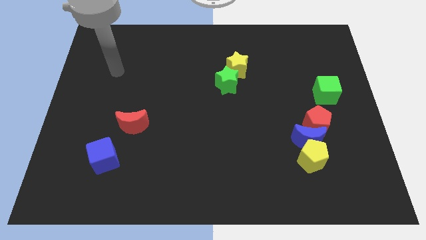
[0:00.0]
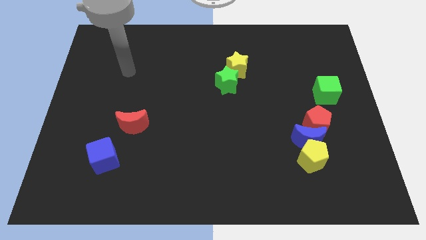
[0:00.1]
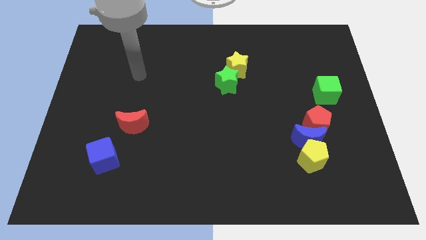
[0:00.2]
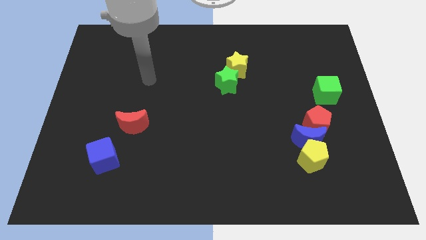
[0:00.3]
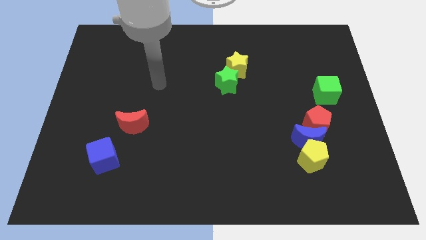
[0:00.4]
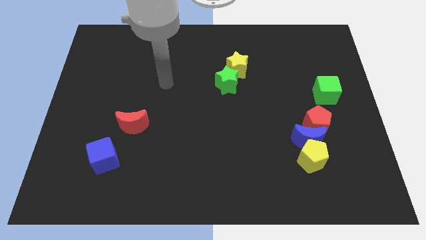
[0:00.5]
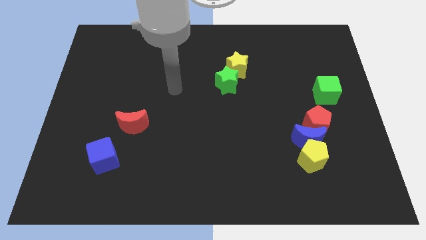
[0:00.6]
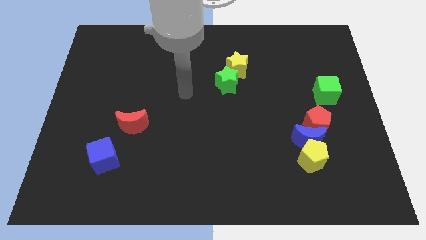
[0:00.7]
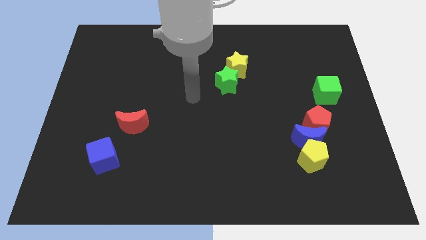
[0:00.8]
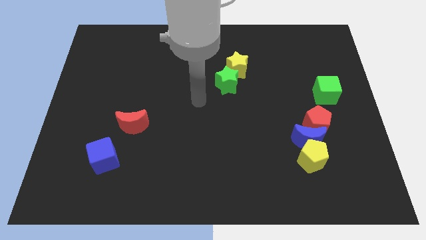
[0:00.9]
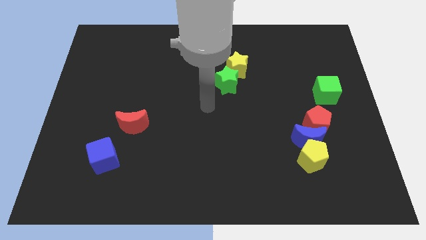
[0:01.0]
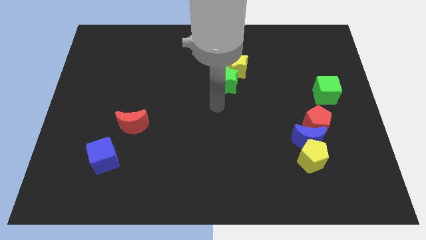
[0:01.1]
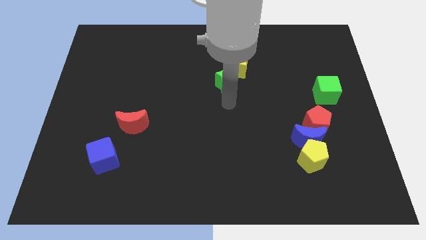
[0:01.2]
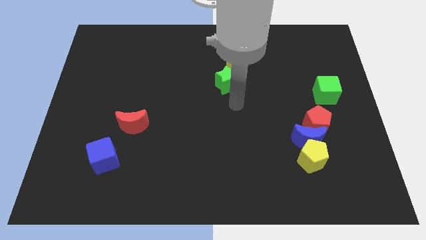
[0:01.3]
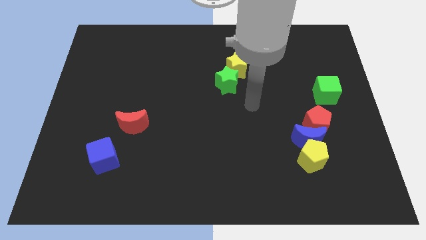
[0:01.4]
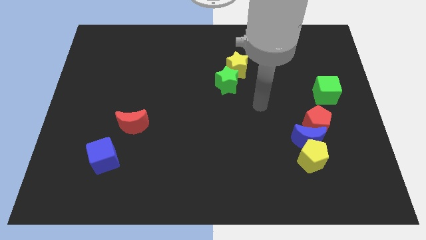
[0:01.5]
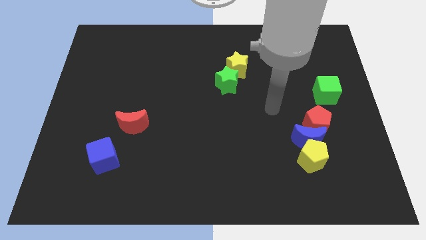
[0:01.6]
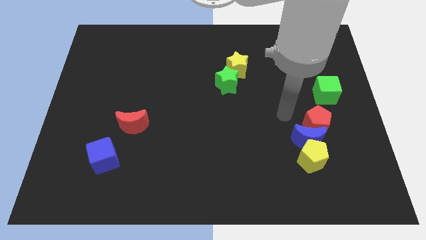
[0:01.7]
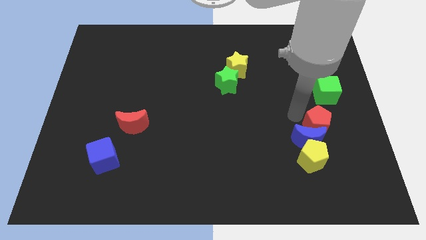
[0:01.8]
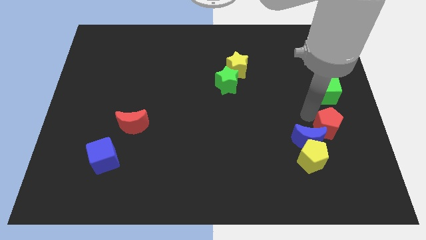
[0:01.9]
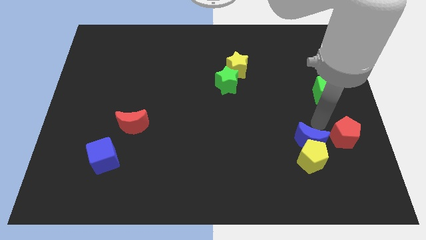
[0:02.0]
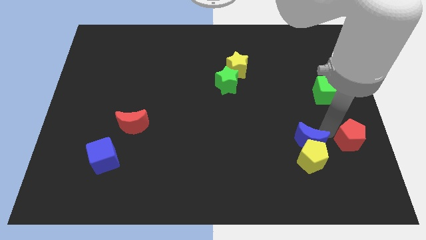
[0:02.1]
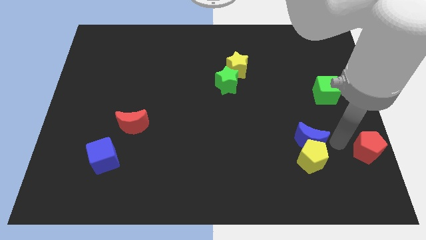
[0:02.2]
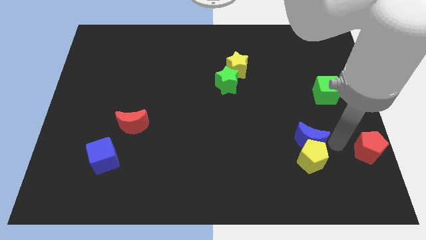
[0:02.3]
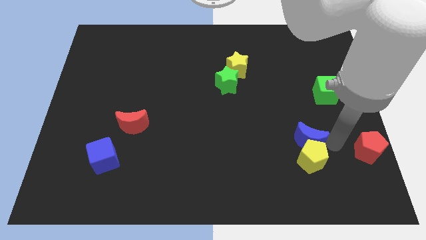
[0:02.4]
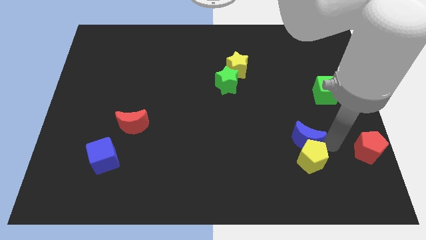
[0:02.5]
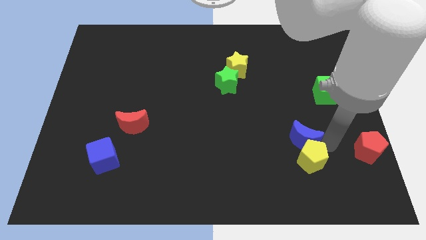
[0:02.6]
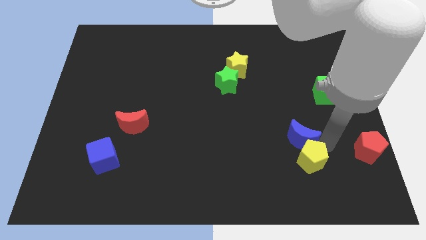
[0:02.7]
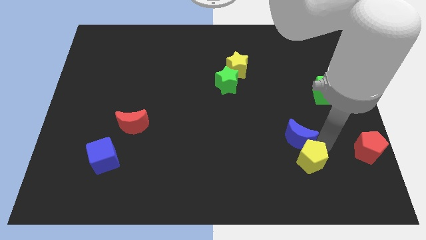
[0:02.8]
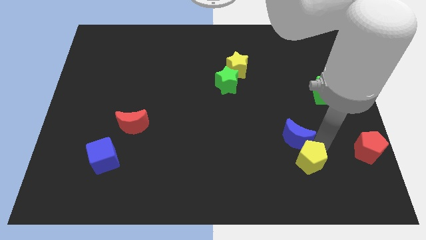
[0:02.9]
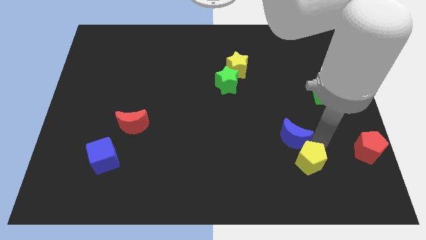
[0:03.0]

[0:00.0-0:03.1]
move the blue moon away from the yellow pentagon and red pentagon

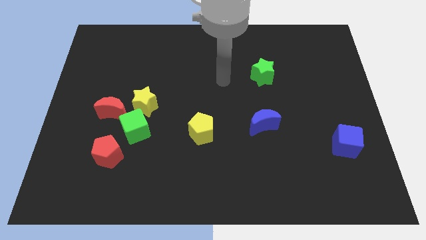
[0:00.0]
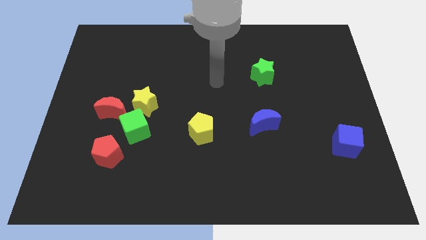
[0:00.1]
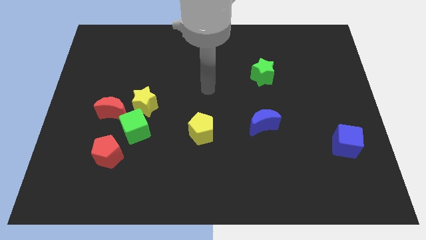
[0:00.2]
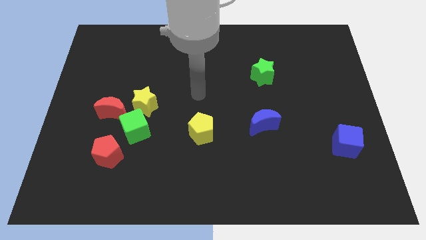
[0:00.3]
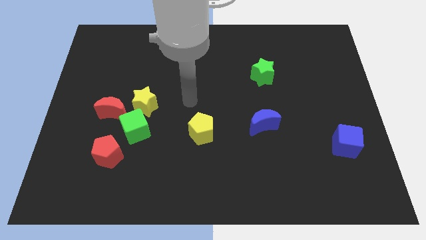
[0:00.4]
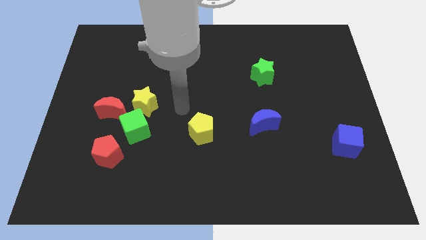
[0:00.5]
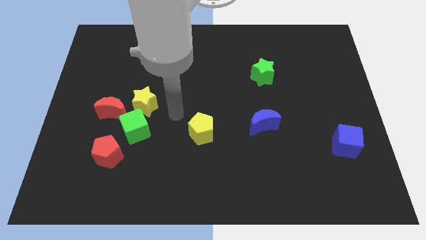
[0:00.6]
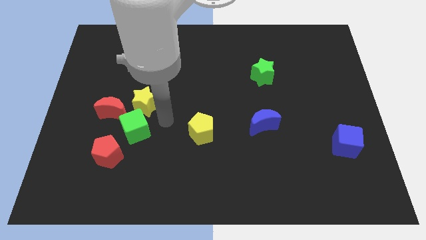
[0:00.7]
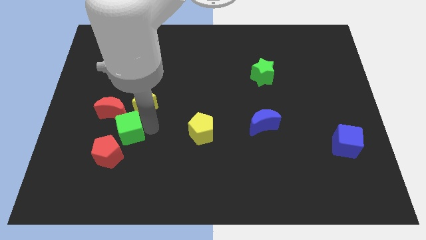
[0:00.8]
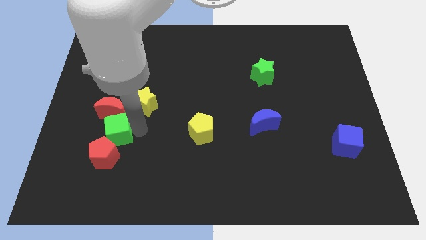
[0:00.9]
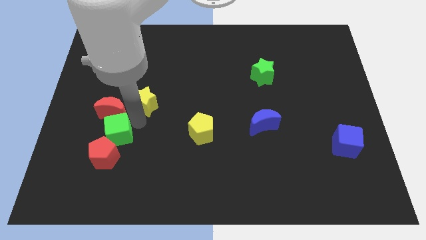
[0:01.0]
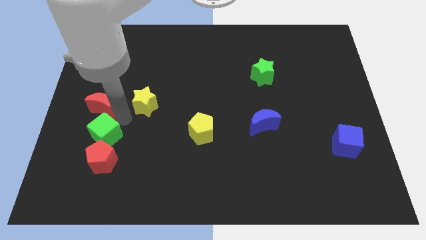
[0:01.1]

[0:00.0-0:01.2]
pull the yellow star apart from the green cube and red moon

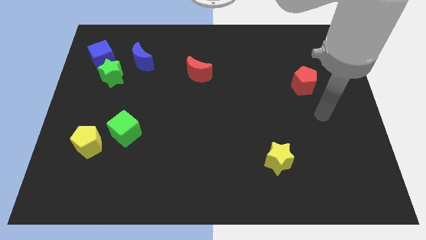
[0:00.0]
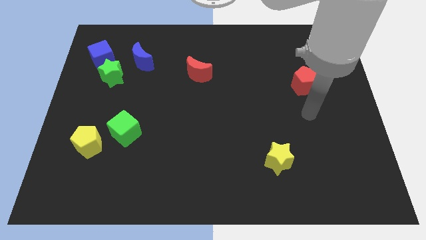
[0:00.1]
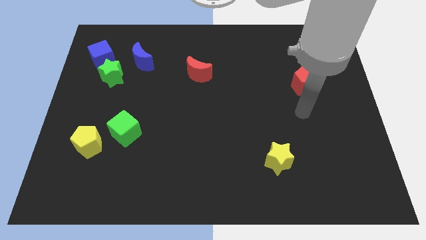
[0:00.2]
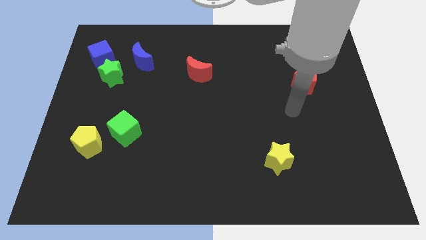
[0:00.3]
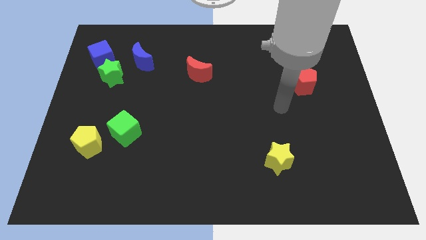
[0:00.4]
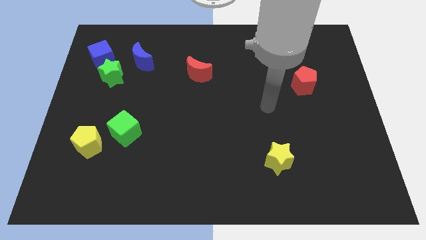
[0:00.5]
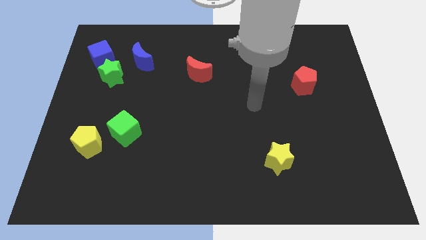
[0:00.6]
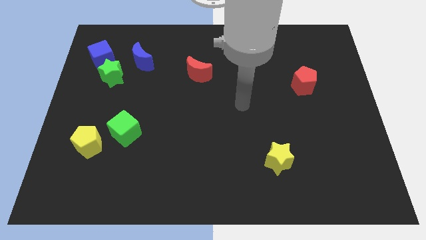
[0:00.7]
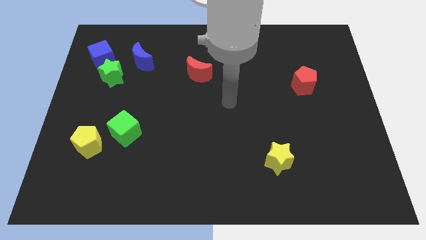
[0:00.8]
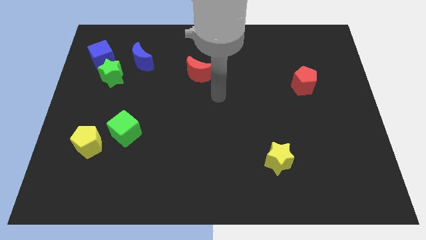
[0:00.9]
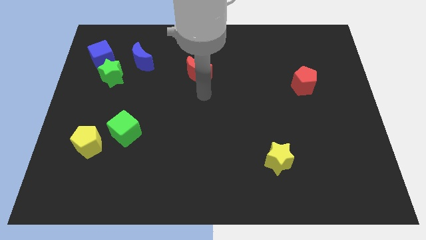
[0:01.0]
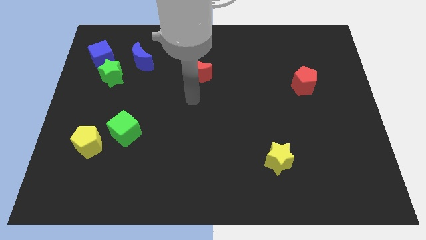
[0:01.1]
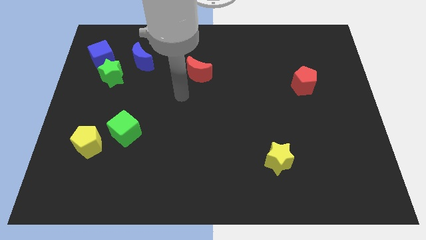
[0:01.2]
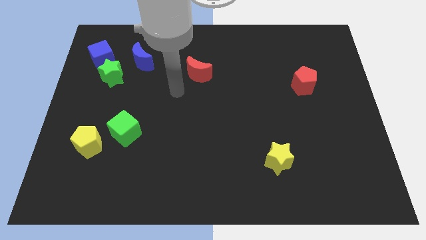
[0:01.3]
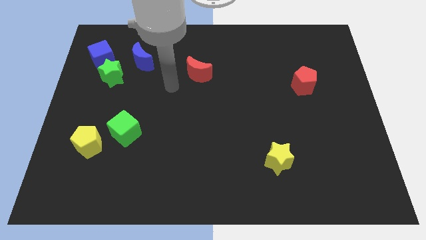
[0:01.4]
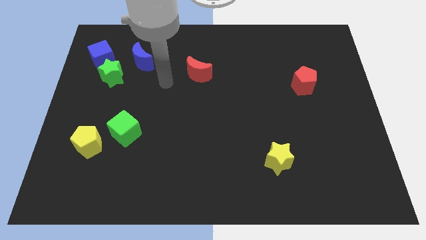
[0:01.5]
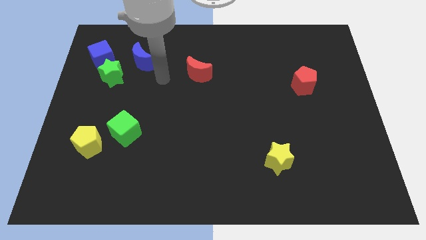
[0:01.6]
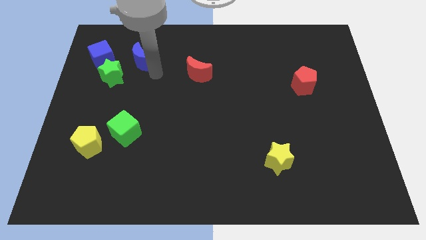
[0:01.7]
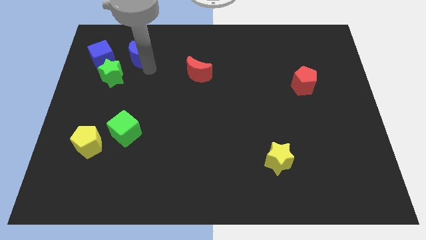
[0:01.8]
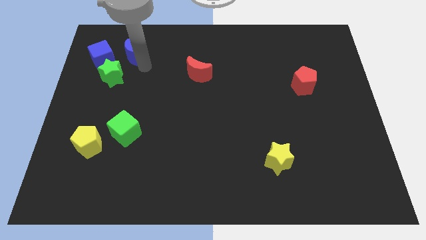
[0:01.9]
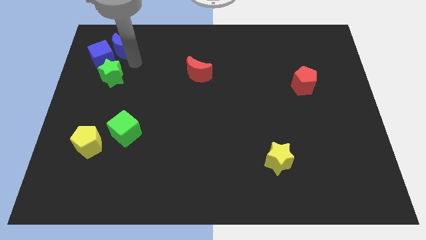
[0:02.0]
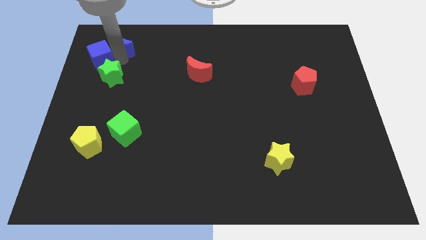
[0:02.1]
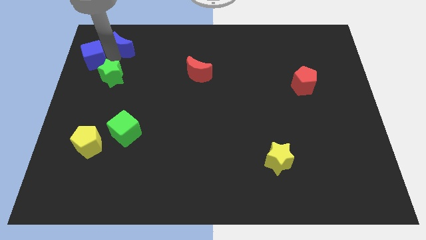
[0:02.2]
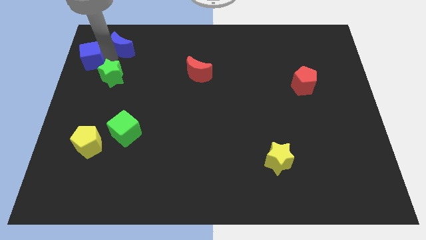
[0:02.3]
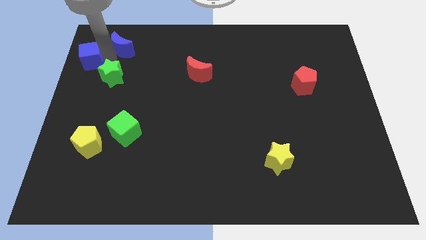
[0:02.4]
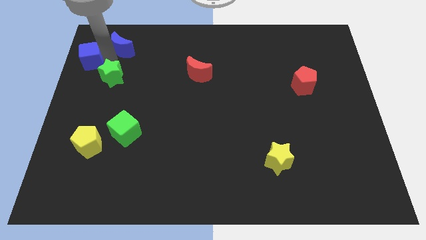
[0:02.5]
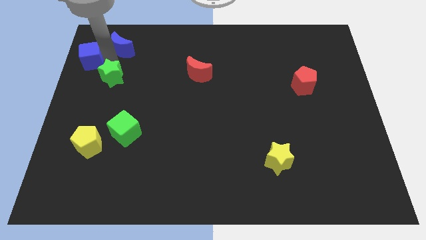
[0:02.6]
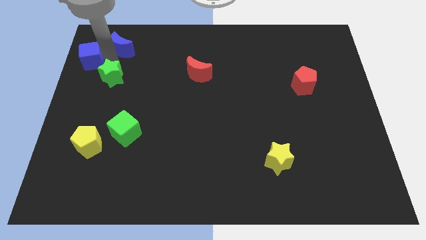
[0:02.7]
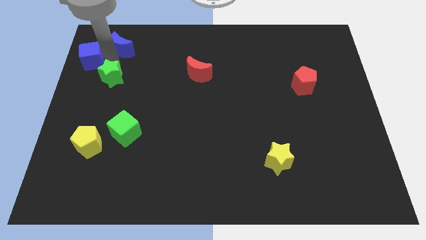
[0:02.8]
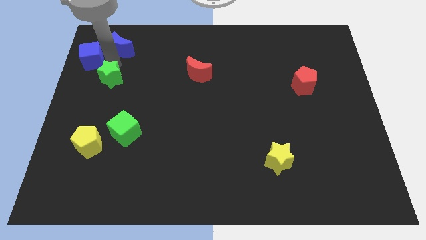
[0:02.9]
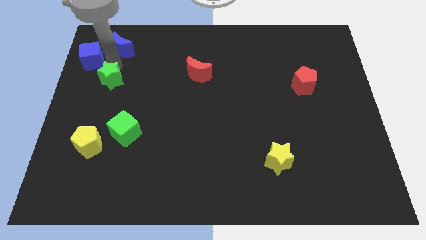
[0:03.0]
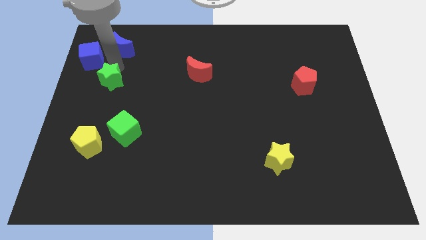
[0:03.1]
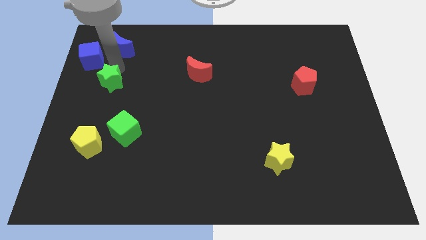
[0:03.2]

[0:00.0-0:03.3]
pull the green star apart from the blue cube and blue moon

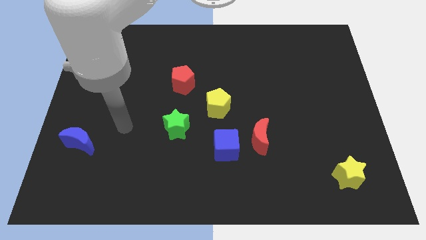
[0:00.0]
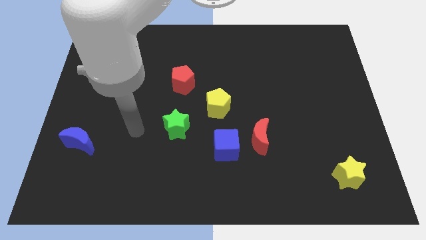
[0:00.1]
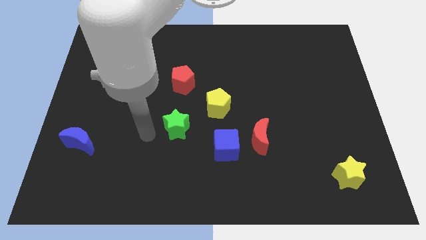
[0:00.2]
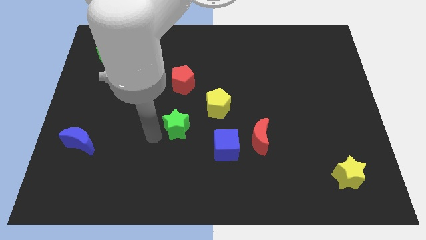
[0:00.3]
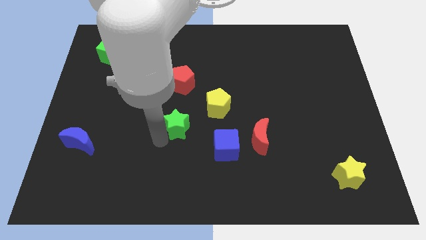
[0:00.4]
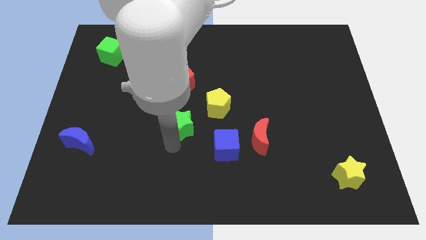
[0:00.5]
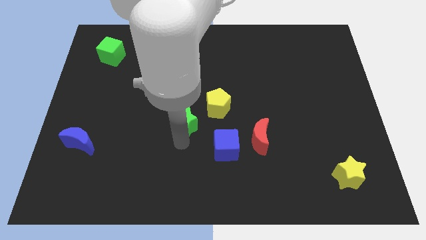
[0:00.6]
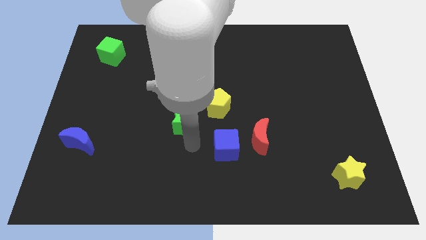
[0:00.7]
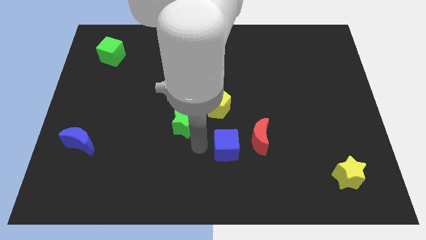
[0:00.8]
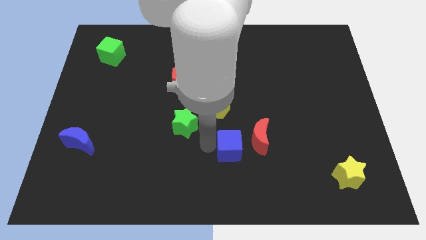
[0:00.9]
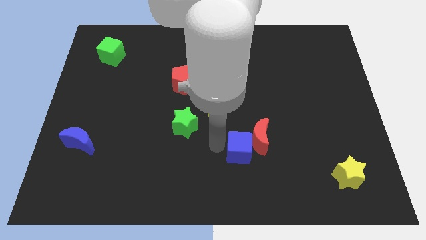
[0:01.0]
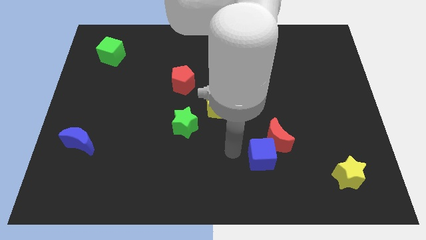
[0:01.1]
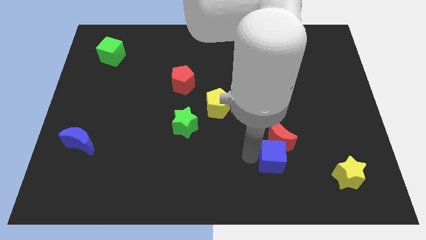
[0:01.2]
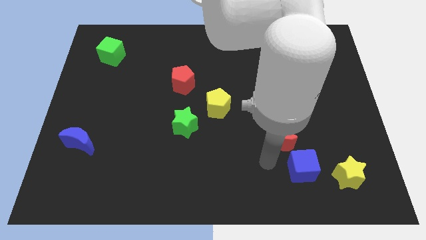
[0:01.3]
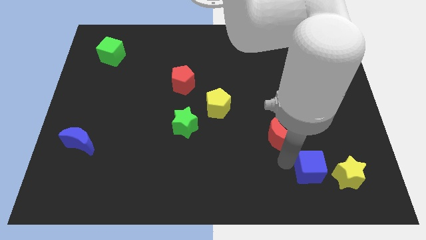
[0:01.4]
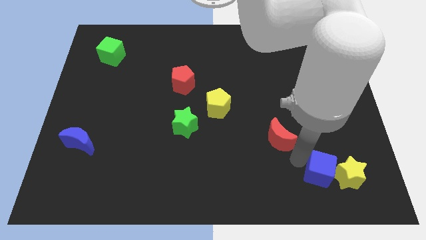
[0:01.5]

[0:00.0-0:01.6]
separate the red moon from the blue cube

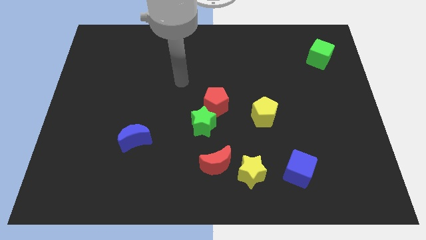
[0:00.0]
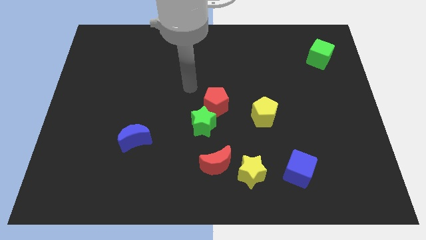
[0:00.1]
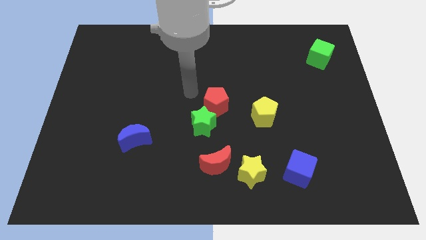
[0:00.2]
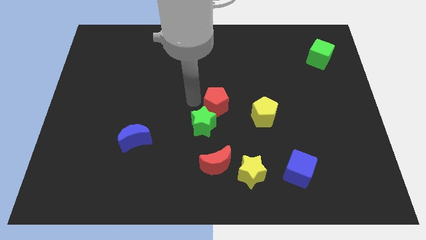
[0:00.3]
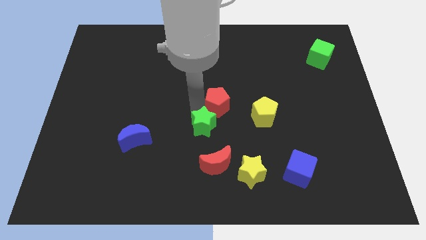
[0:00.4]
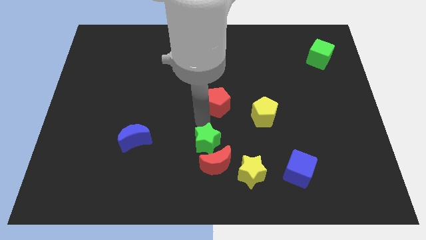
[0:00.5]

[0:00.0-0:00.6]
separate the red pentagon from the green star
